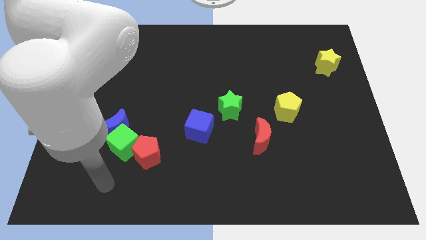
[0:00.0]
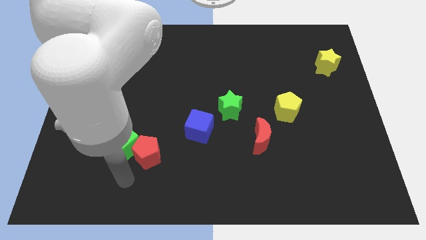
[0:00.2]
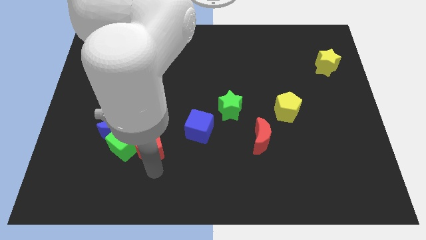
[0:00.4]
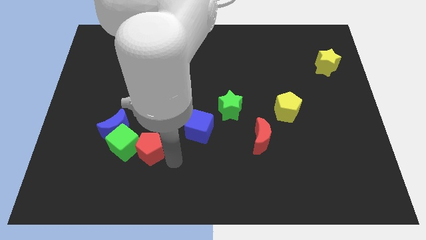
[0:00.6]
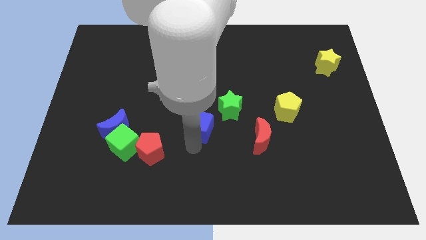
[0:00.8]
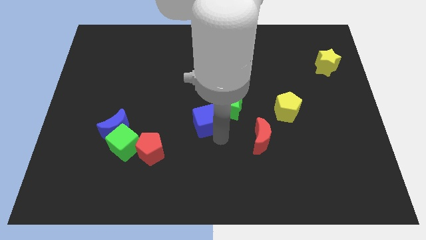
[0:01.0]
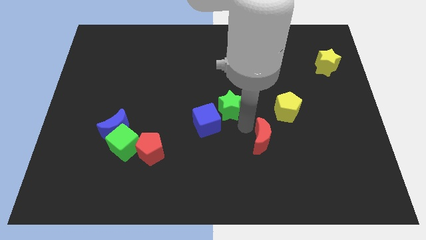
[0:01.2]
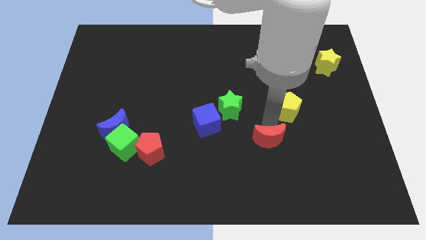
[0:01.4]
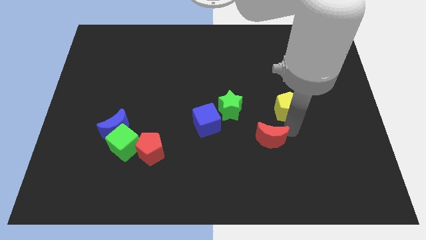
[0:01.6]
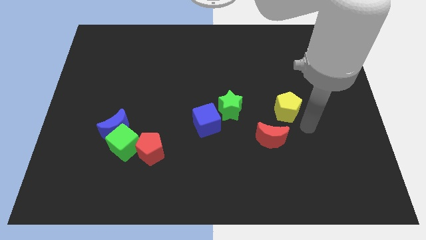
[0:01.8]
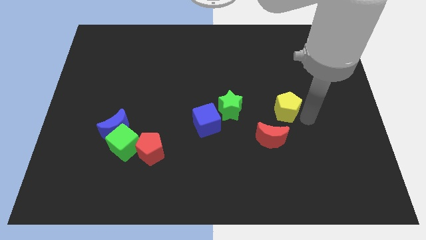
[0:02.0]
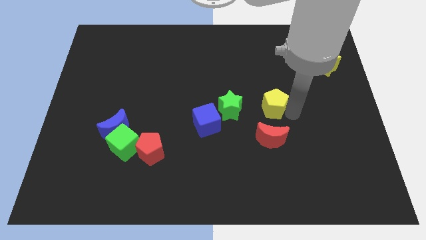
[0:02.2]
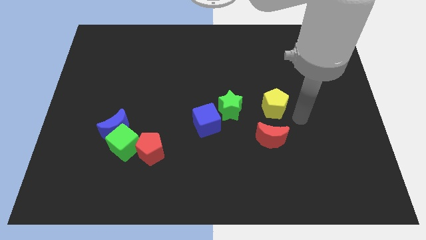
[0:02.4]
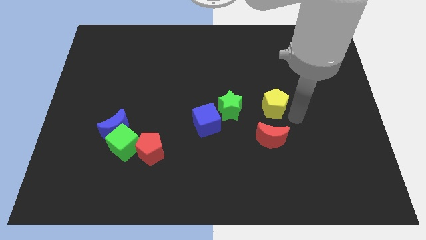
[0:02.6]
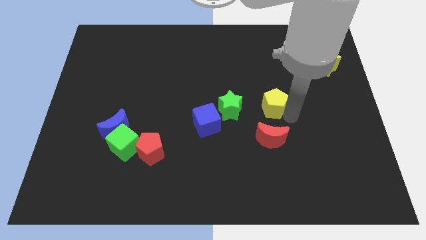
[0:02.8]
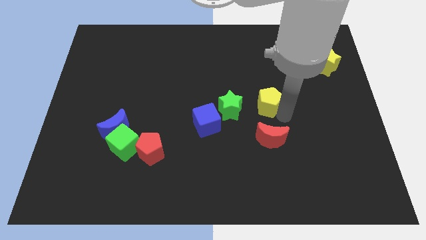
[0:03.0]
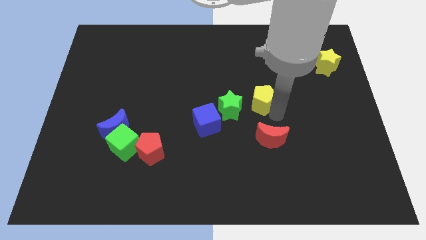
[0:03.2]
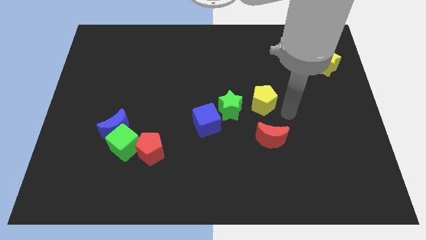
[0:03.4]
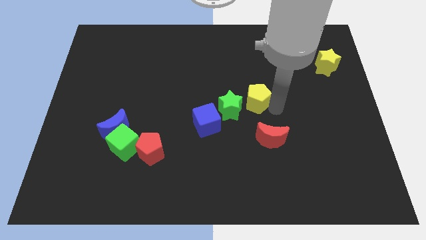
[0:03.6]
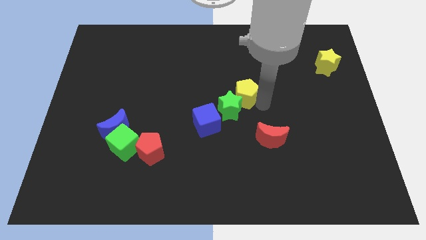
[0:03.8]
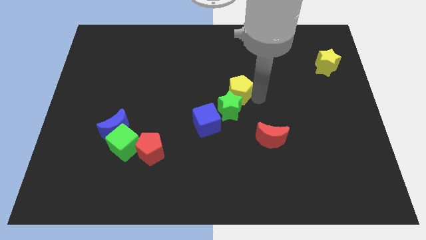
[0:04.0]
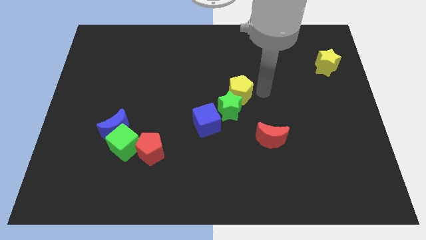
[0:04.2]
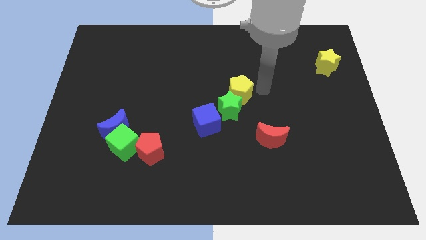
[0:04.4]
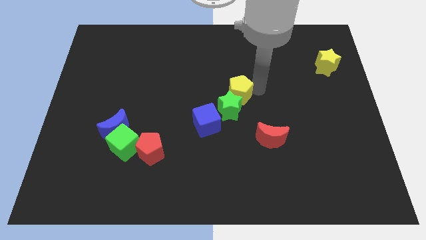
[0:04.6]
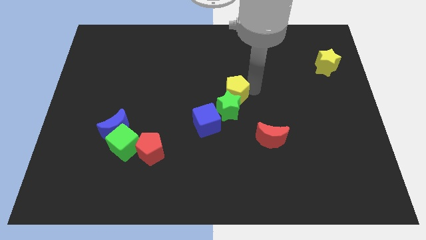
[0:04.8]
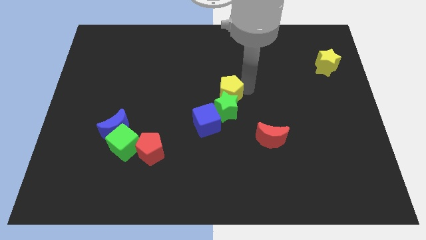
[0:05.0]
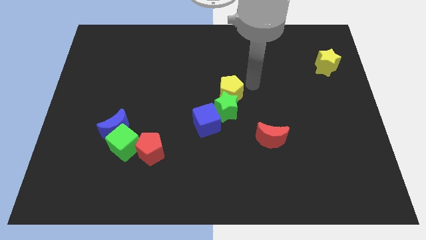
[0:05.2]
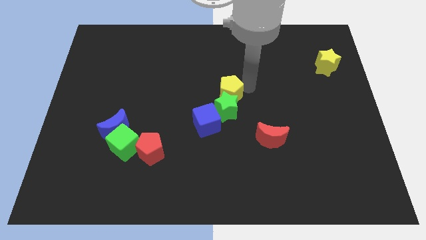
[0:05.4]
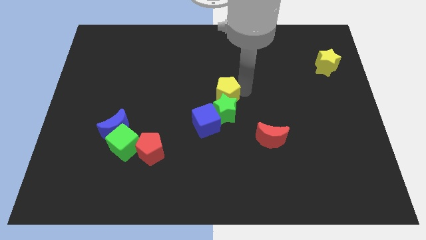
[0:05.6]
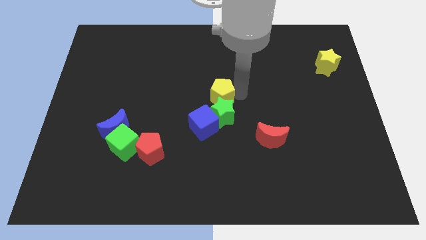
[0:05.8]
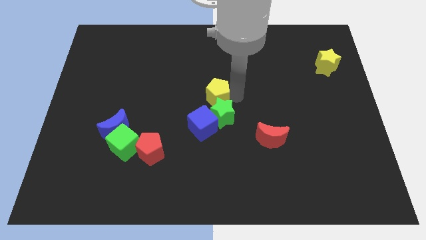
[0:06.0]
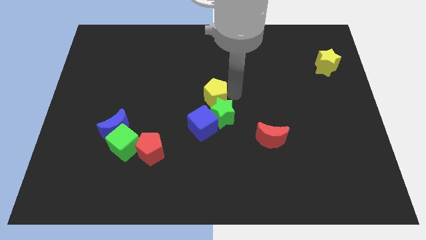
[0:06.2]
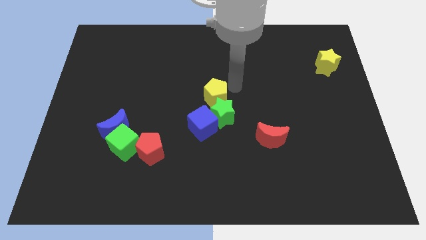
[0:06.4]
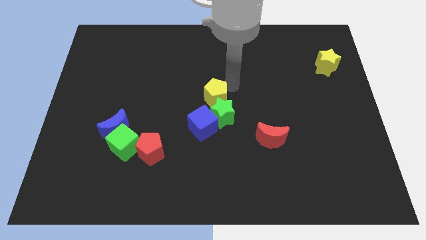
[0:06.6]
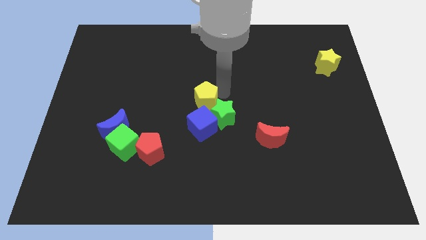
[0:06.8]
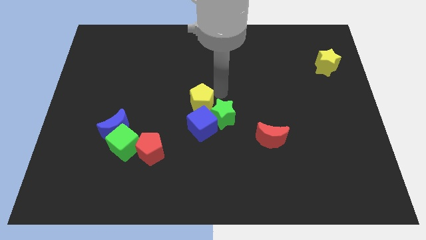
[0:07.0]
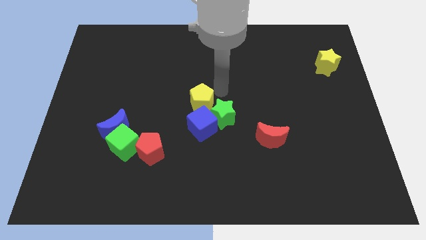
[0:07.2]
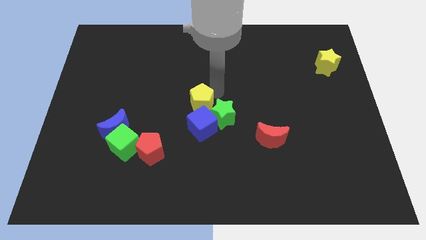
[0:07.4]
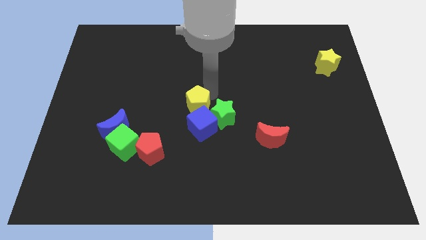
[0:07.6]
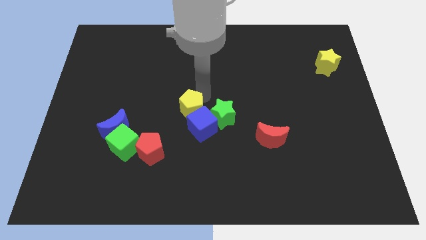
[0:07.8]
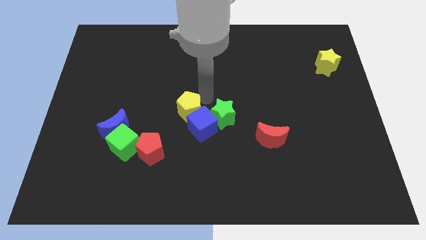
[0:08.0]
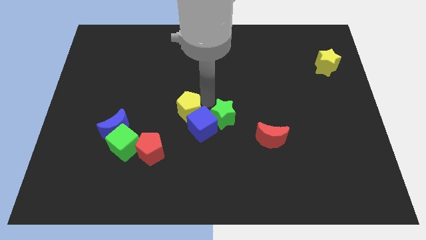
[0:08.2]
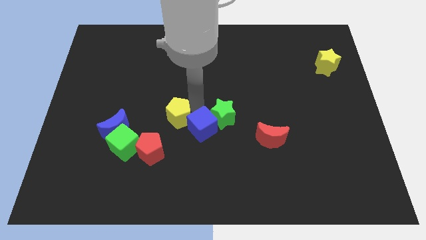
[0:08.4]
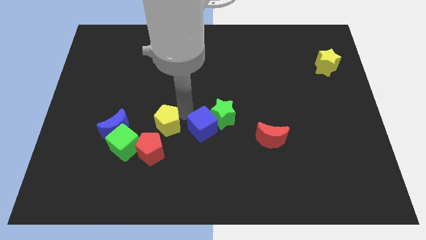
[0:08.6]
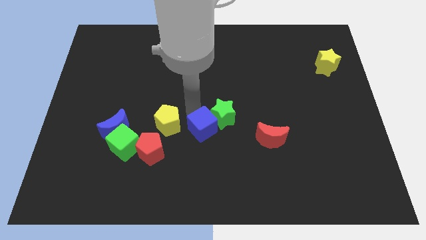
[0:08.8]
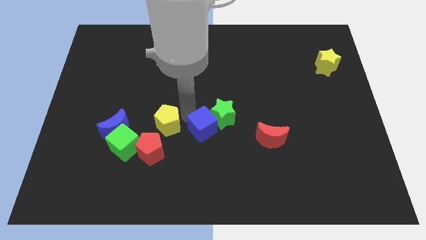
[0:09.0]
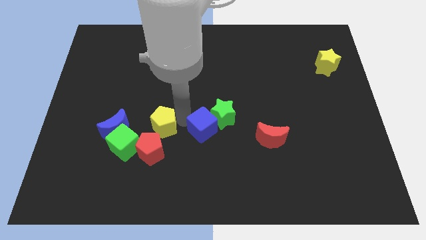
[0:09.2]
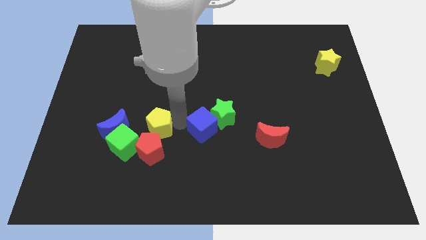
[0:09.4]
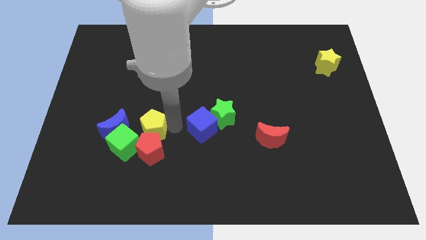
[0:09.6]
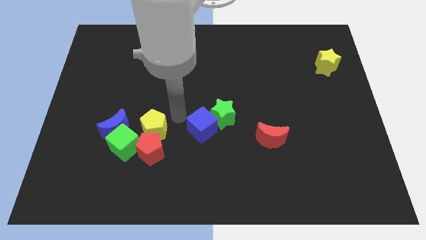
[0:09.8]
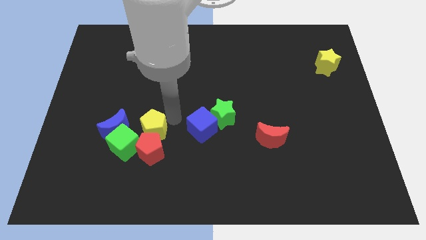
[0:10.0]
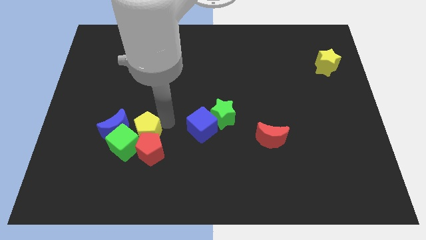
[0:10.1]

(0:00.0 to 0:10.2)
push the yellow pentagon towards the green cube

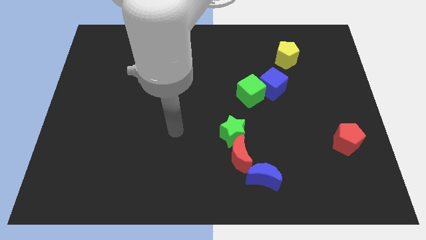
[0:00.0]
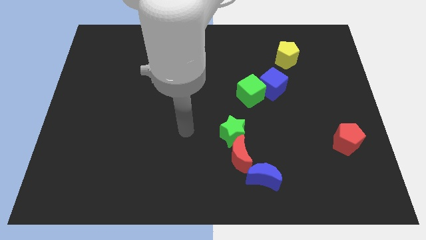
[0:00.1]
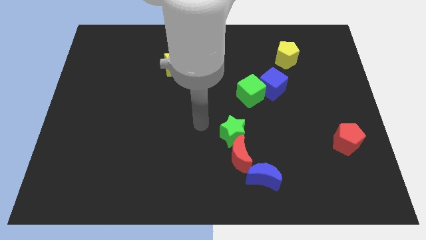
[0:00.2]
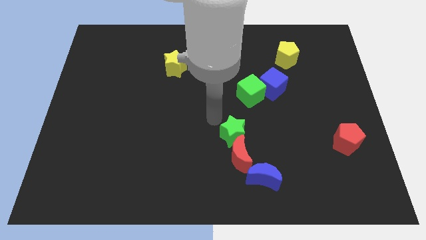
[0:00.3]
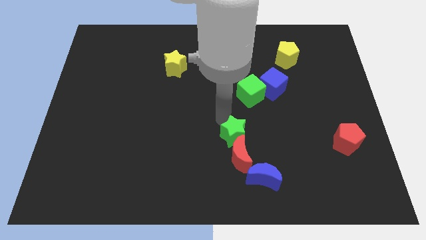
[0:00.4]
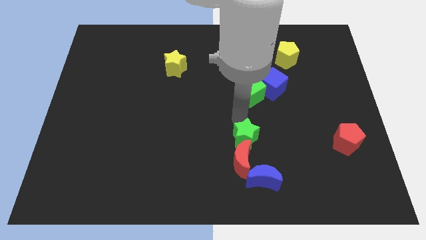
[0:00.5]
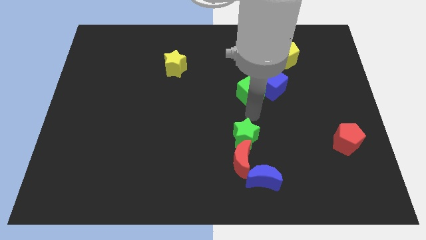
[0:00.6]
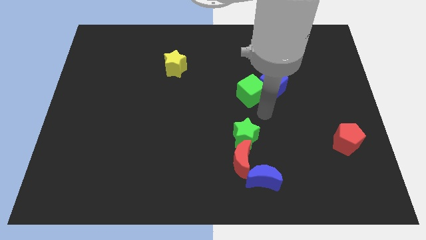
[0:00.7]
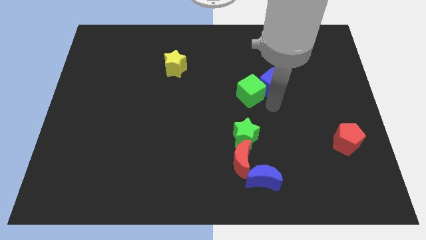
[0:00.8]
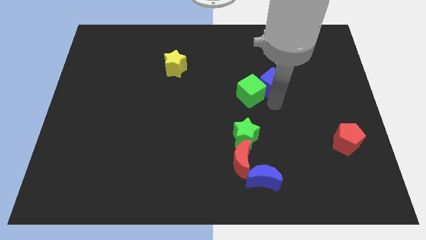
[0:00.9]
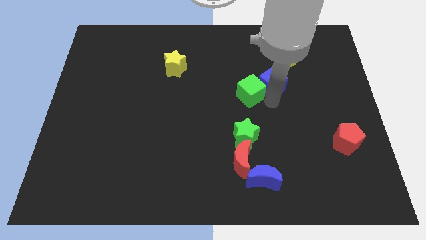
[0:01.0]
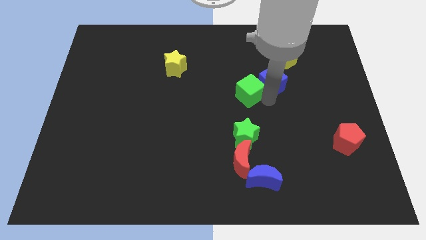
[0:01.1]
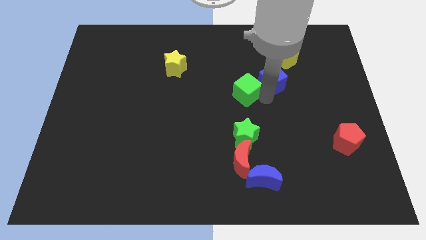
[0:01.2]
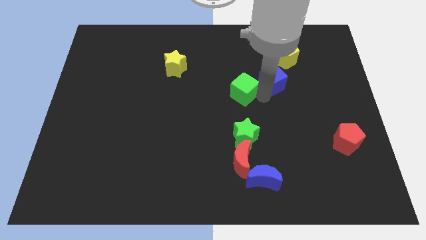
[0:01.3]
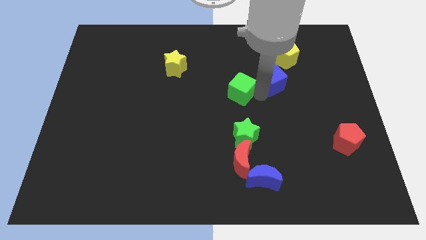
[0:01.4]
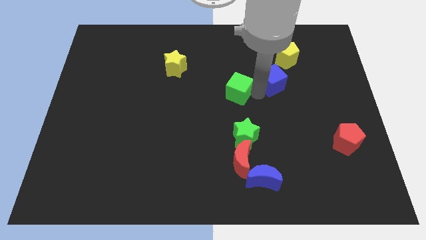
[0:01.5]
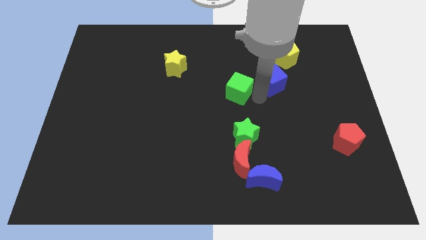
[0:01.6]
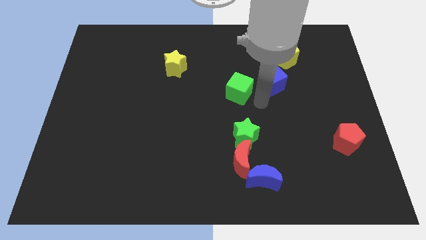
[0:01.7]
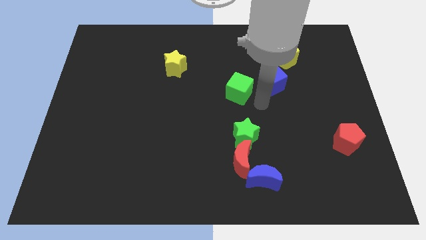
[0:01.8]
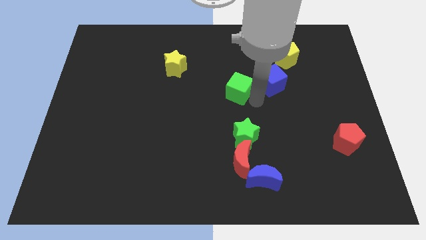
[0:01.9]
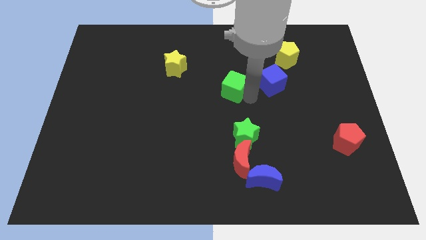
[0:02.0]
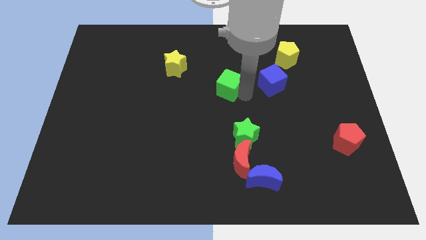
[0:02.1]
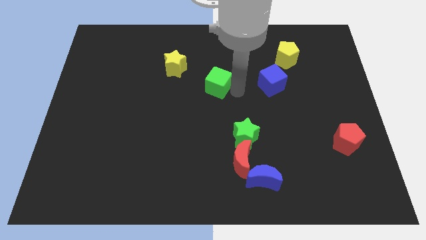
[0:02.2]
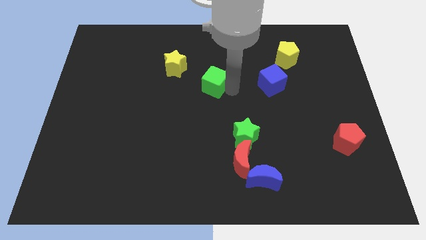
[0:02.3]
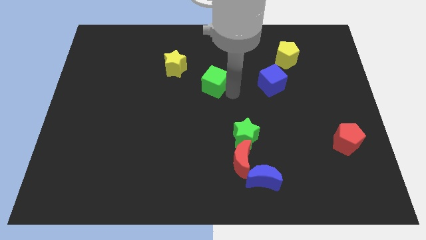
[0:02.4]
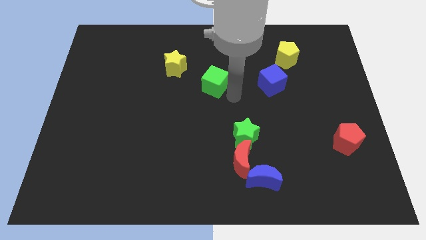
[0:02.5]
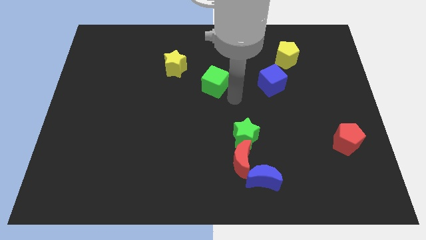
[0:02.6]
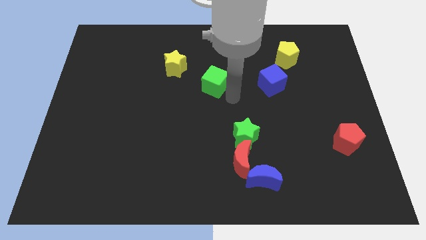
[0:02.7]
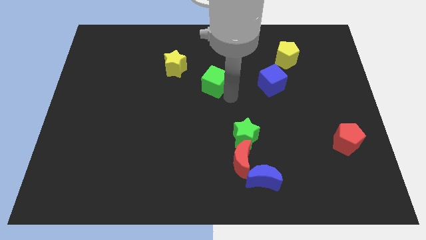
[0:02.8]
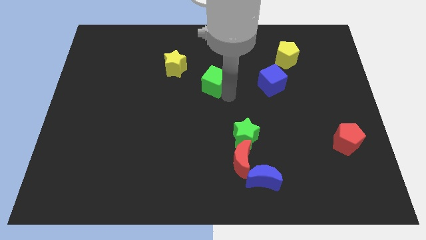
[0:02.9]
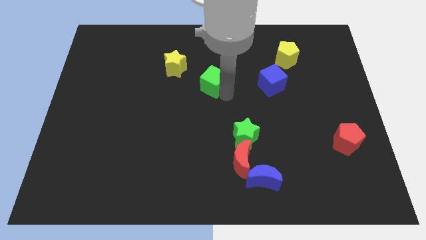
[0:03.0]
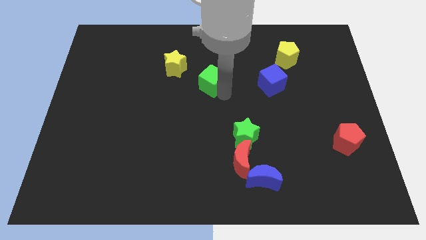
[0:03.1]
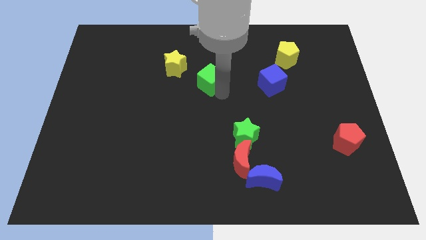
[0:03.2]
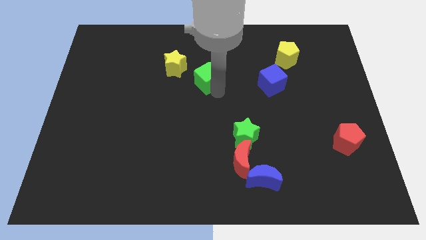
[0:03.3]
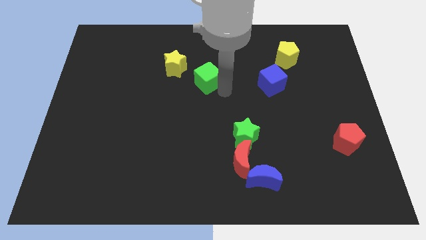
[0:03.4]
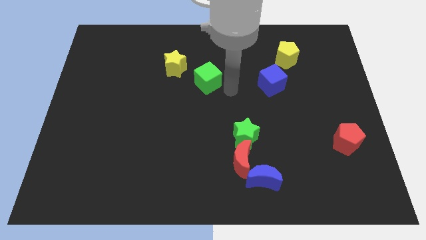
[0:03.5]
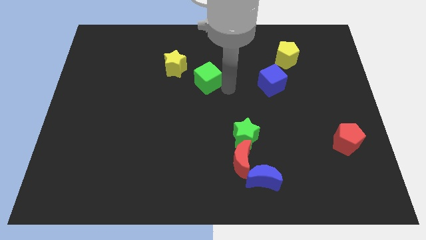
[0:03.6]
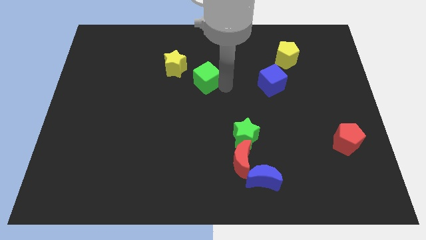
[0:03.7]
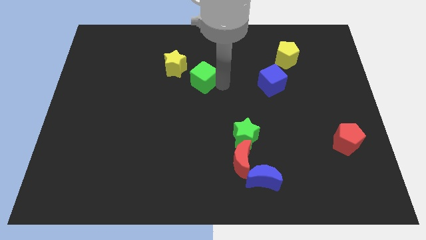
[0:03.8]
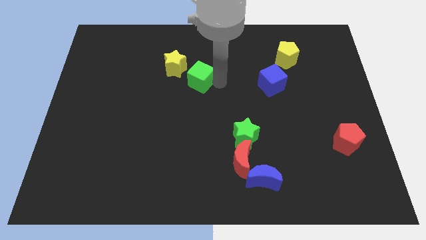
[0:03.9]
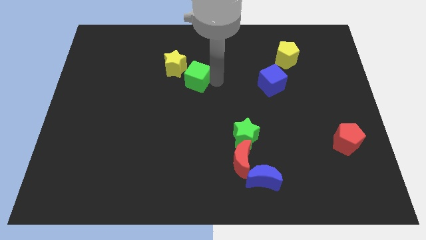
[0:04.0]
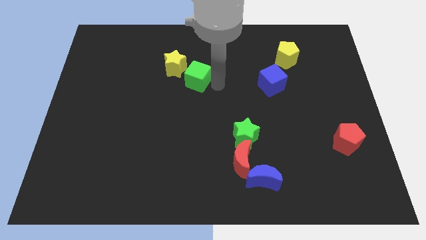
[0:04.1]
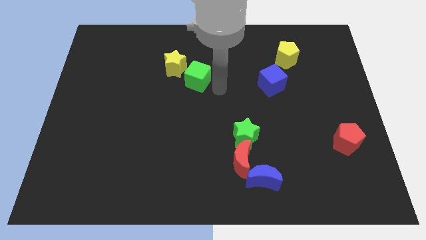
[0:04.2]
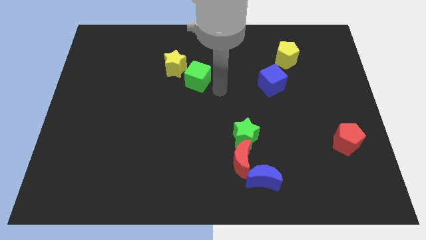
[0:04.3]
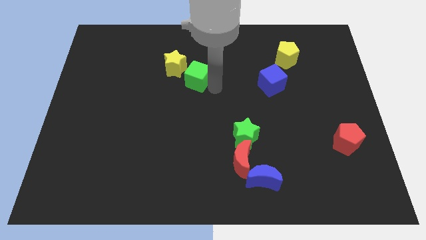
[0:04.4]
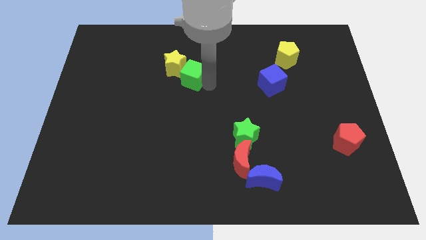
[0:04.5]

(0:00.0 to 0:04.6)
slide the green cube close to the yellow star
